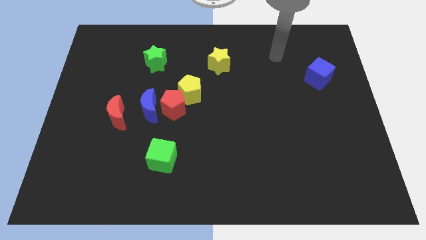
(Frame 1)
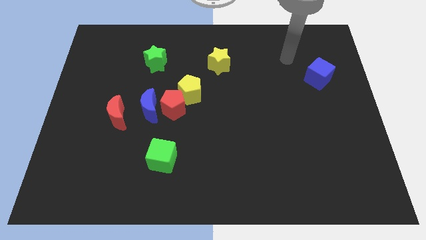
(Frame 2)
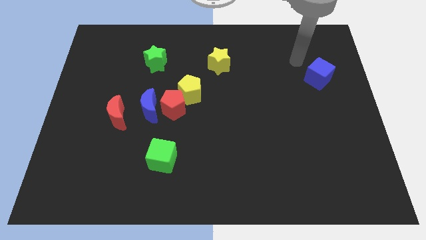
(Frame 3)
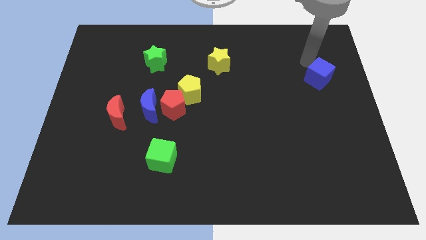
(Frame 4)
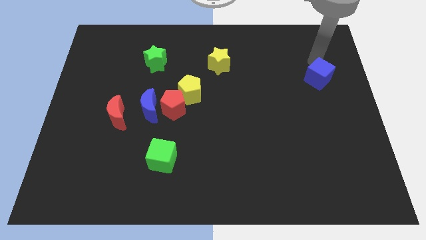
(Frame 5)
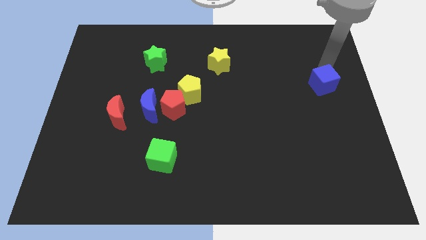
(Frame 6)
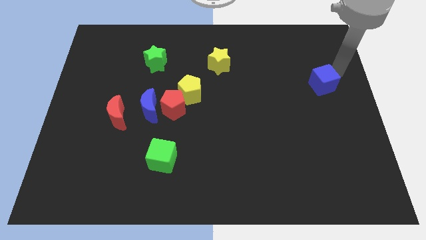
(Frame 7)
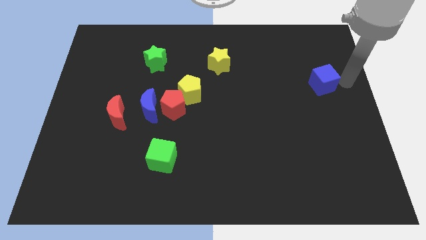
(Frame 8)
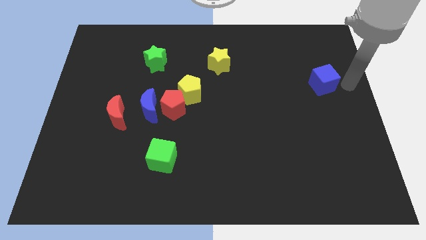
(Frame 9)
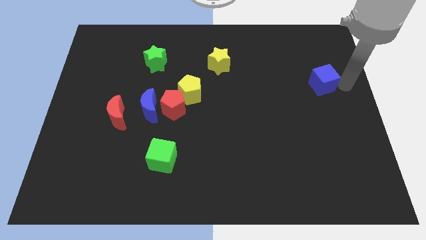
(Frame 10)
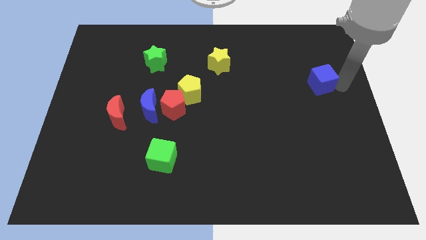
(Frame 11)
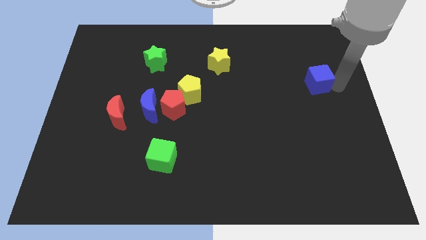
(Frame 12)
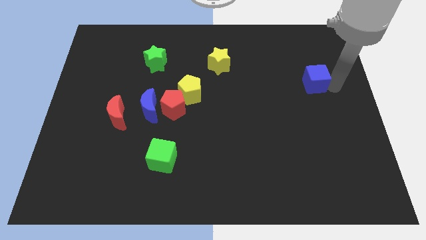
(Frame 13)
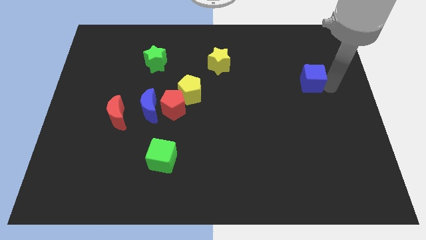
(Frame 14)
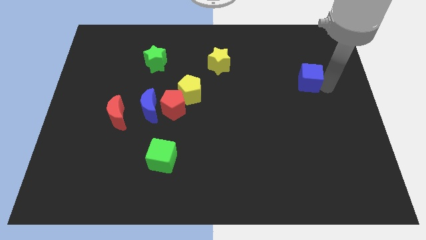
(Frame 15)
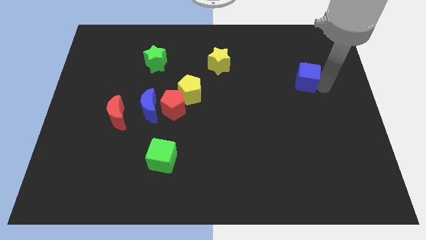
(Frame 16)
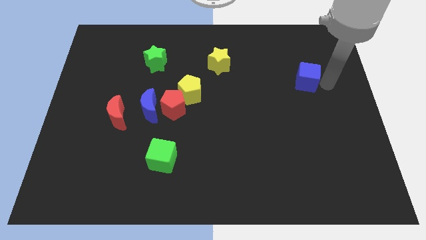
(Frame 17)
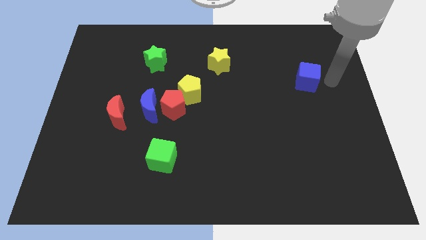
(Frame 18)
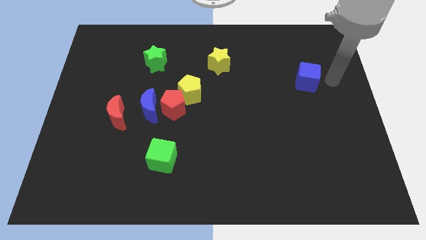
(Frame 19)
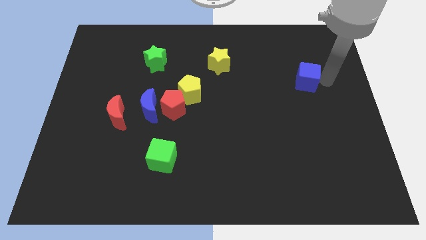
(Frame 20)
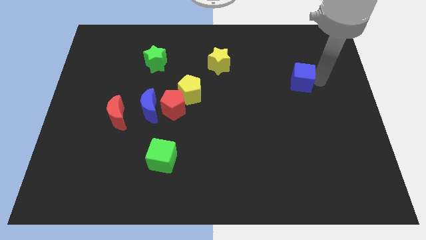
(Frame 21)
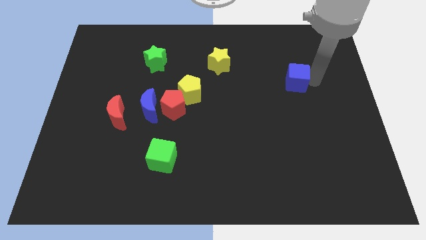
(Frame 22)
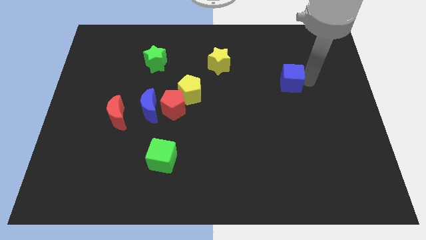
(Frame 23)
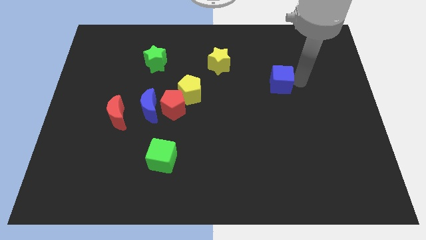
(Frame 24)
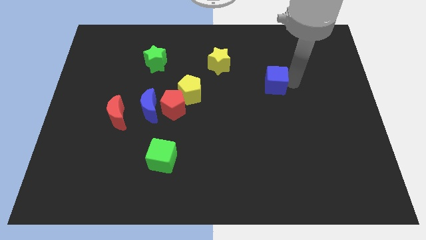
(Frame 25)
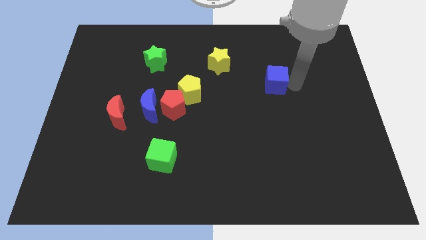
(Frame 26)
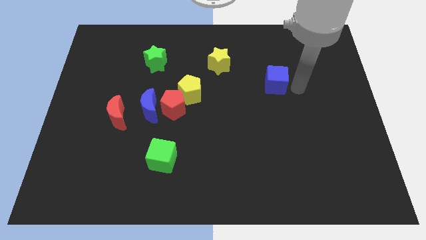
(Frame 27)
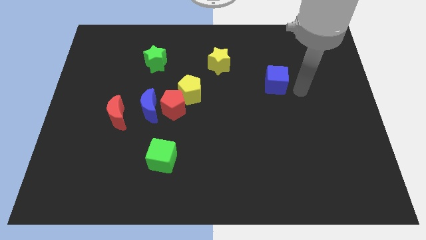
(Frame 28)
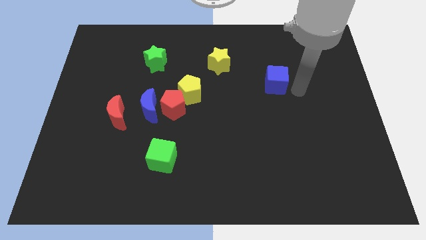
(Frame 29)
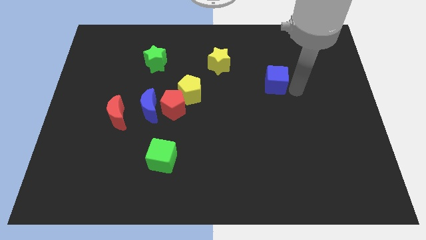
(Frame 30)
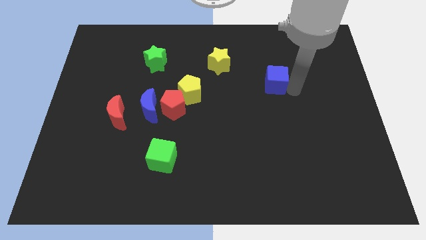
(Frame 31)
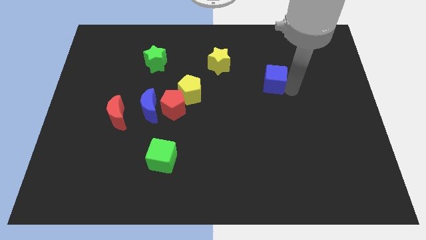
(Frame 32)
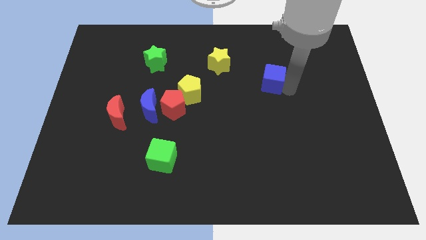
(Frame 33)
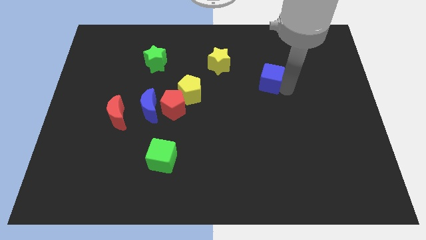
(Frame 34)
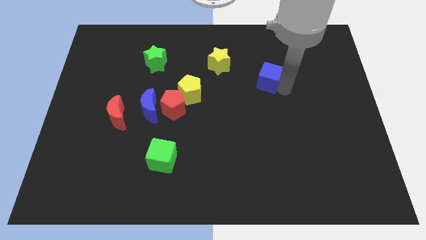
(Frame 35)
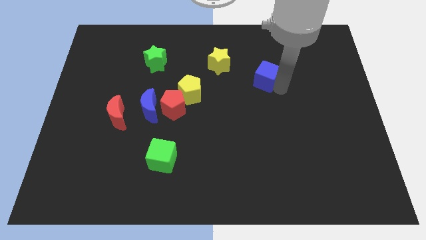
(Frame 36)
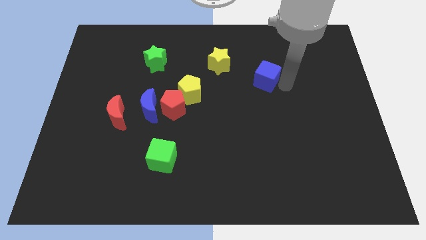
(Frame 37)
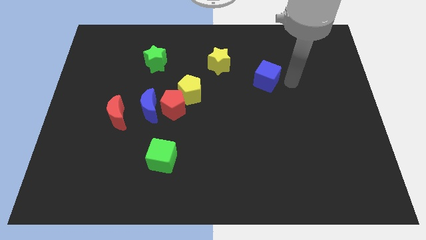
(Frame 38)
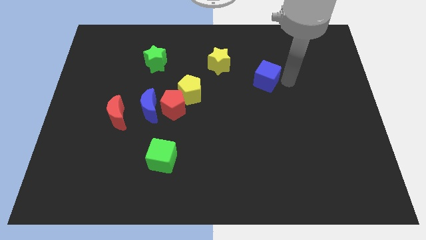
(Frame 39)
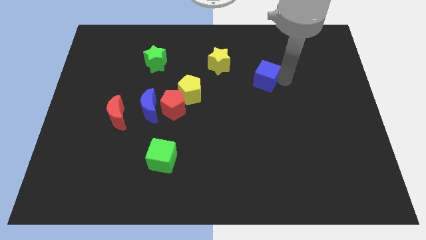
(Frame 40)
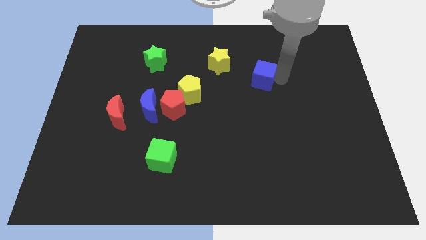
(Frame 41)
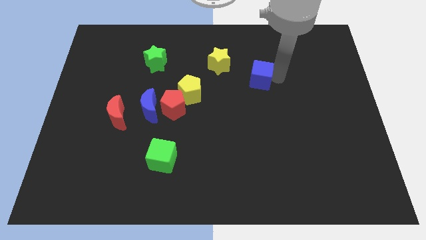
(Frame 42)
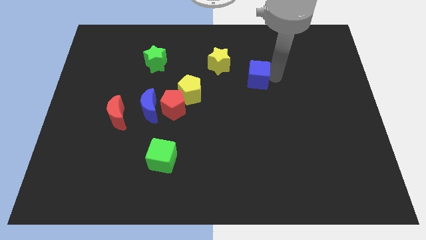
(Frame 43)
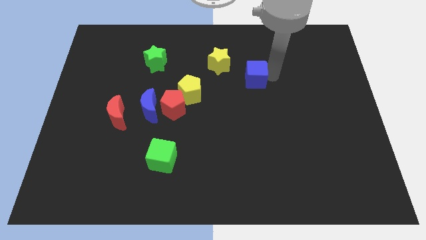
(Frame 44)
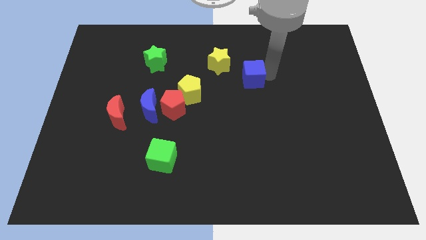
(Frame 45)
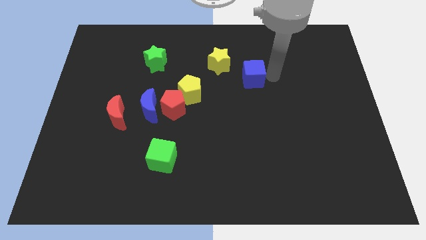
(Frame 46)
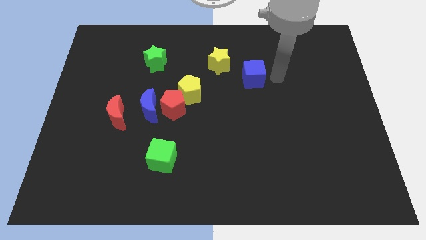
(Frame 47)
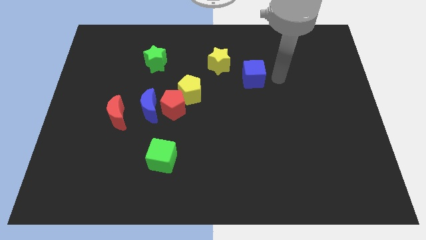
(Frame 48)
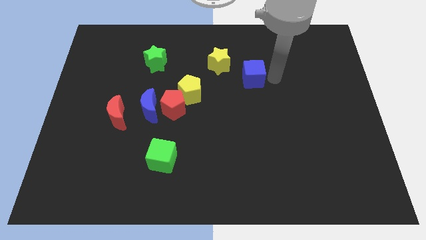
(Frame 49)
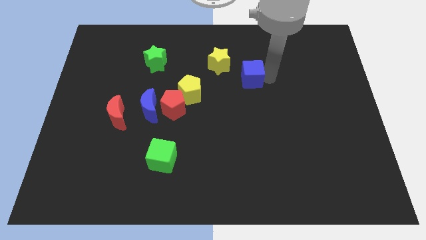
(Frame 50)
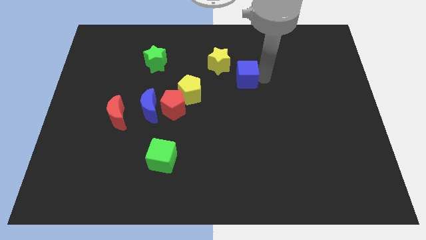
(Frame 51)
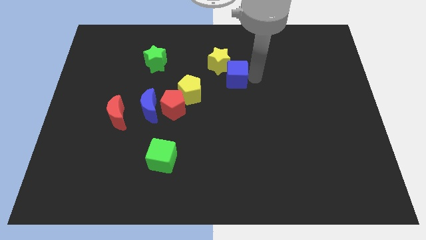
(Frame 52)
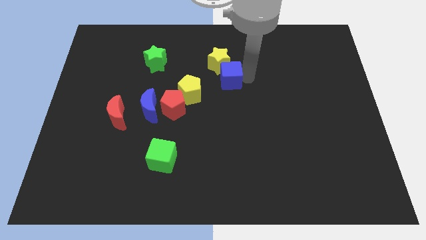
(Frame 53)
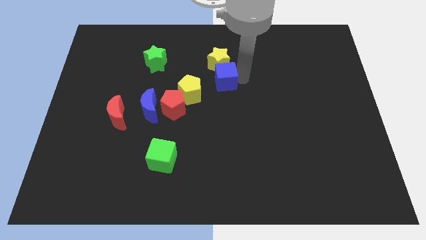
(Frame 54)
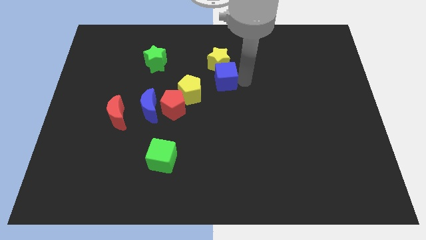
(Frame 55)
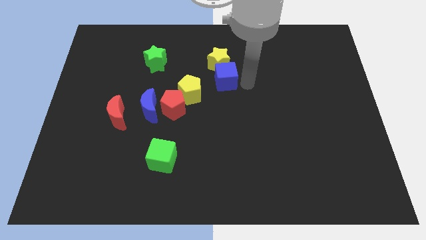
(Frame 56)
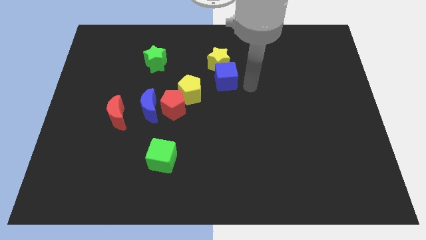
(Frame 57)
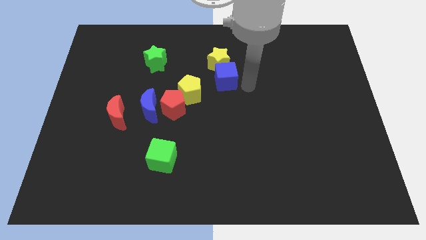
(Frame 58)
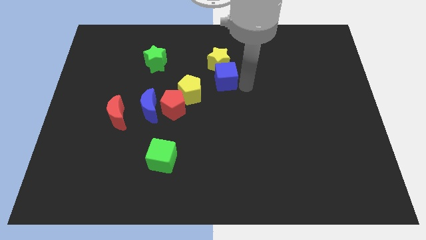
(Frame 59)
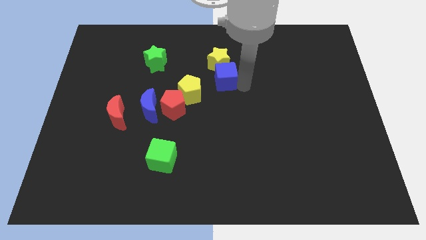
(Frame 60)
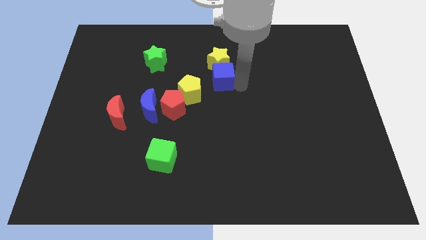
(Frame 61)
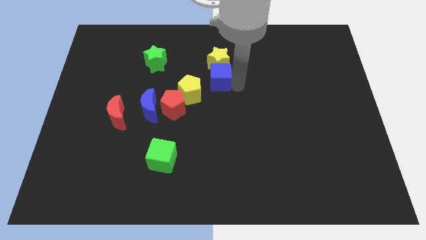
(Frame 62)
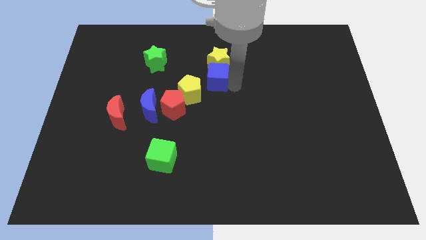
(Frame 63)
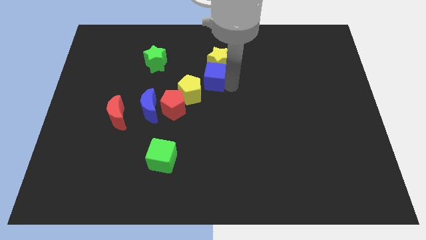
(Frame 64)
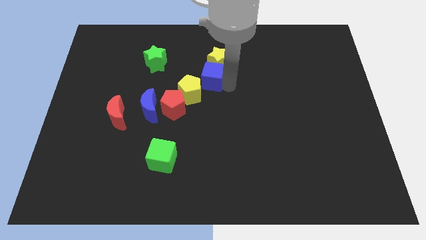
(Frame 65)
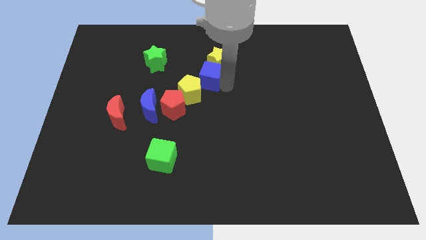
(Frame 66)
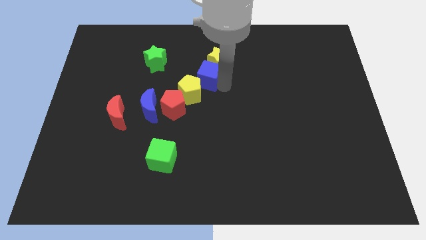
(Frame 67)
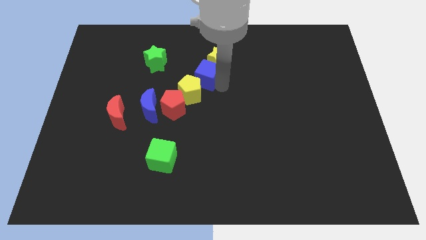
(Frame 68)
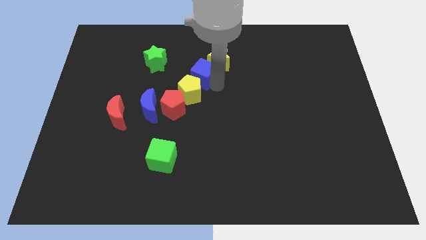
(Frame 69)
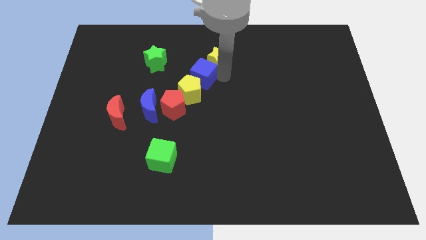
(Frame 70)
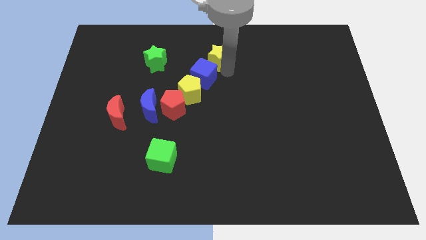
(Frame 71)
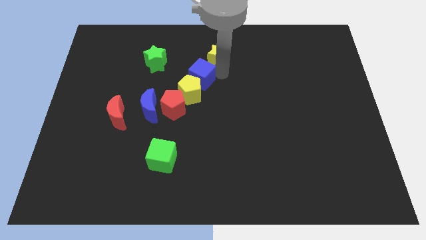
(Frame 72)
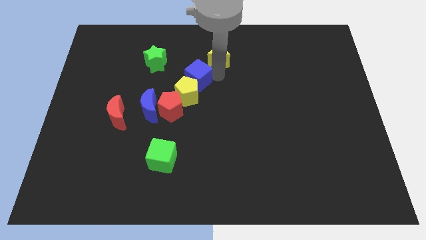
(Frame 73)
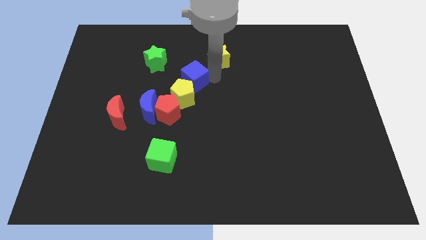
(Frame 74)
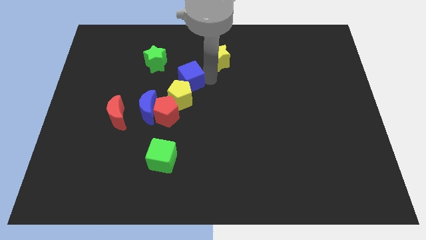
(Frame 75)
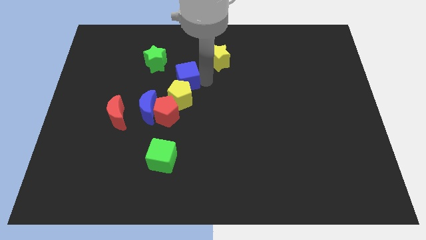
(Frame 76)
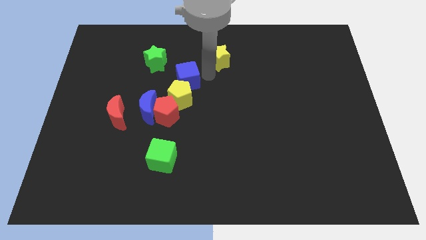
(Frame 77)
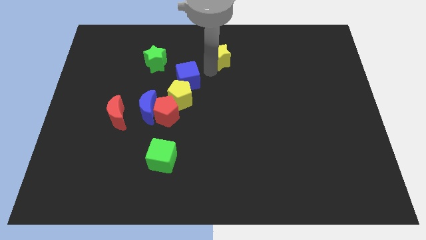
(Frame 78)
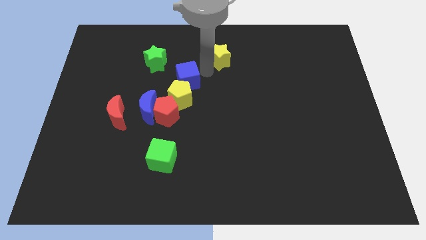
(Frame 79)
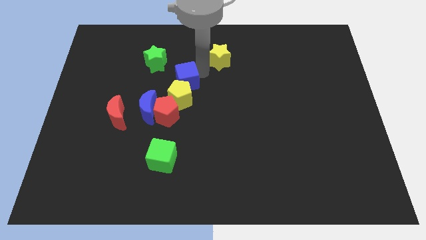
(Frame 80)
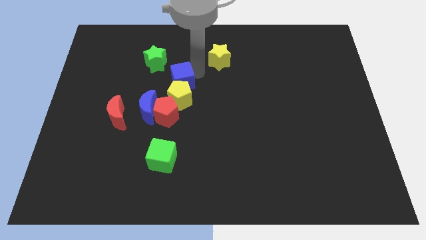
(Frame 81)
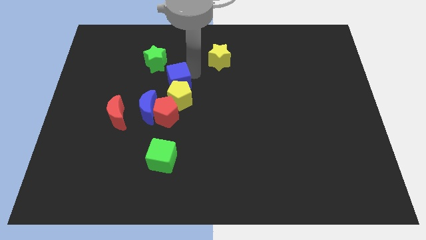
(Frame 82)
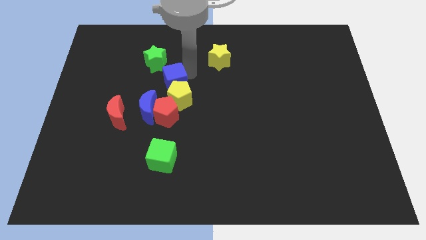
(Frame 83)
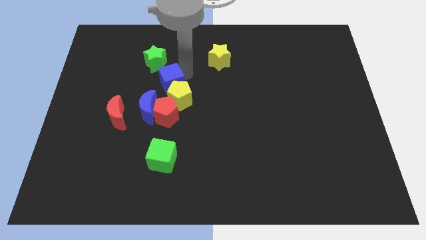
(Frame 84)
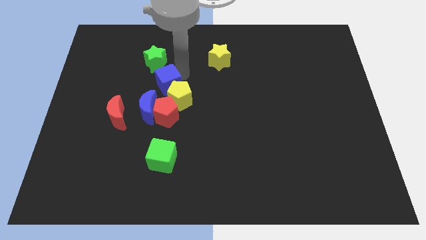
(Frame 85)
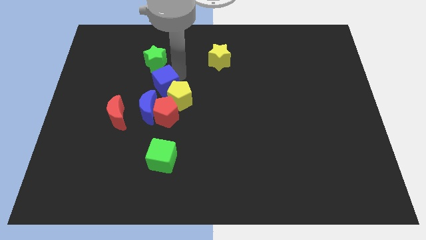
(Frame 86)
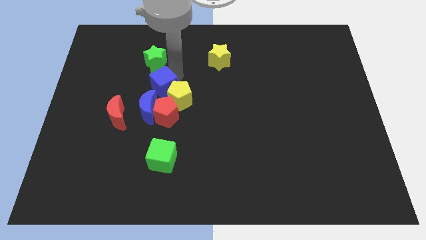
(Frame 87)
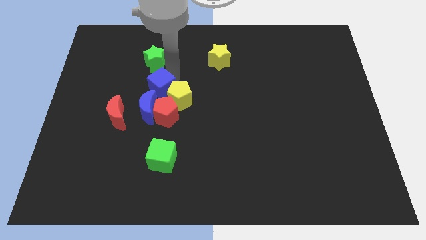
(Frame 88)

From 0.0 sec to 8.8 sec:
push the blue cube to the top left of the red pentagon
